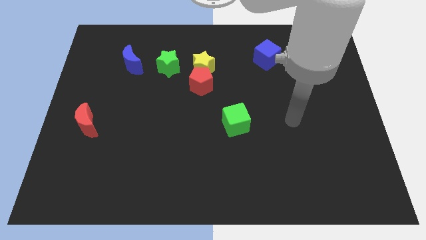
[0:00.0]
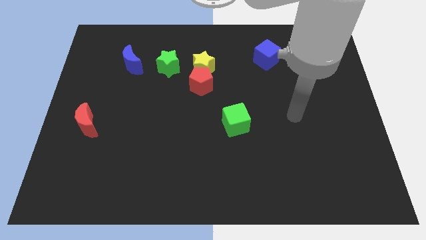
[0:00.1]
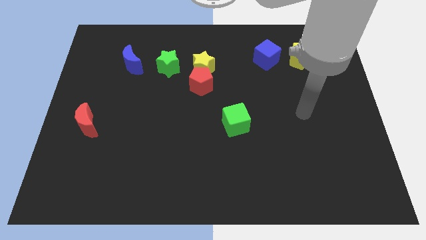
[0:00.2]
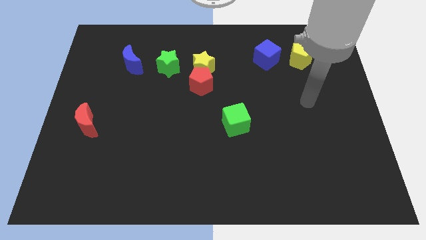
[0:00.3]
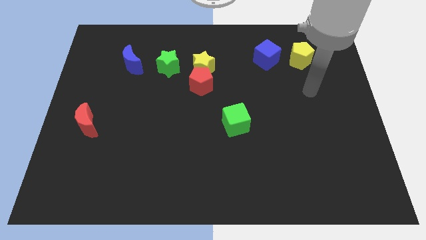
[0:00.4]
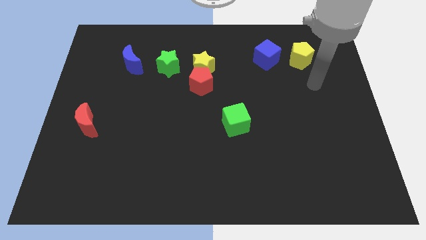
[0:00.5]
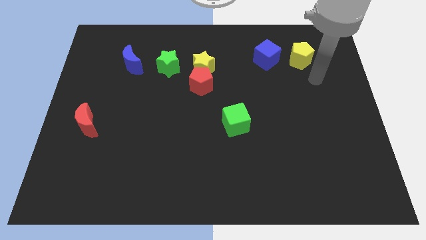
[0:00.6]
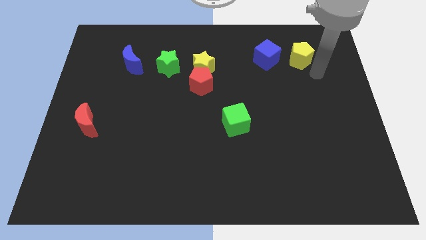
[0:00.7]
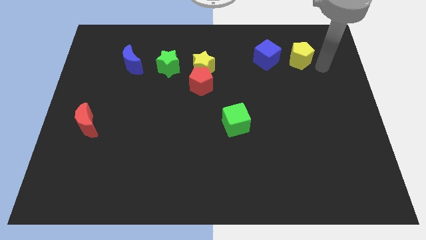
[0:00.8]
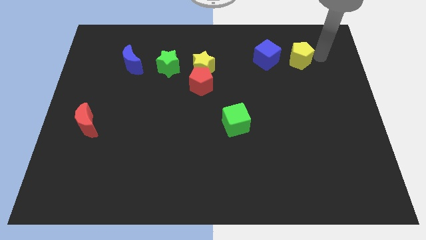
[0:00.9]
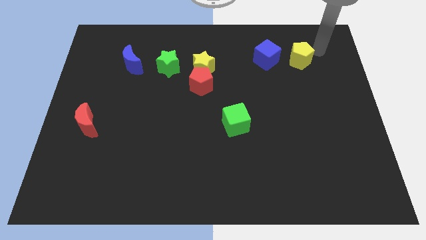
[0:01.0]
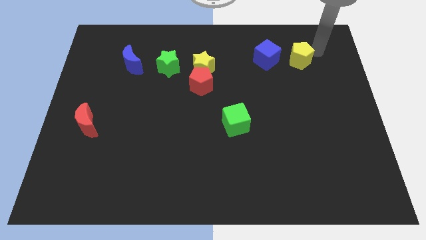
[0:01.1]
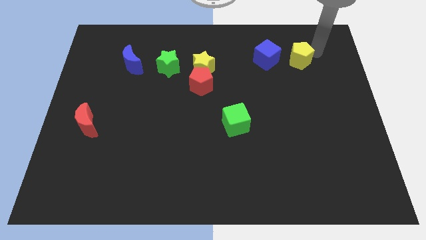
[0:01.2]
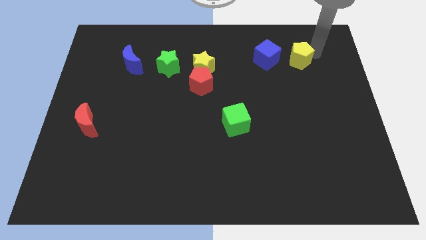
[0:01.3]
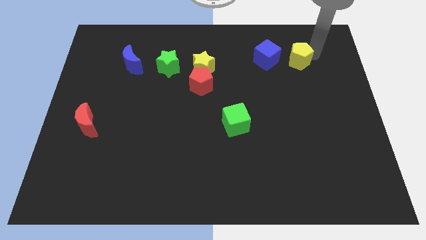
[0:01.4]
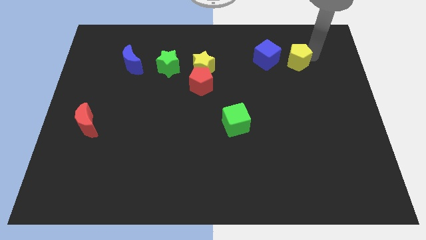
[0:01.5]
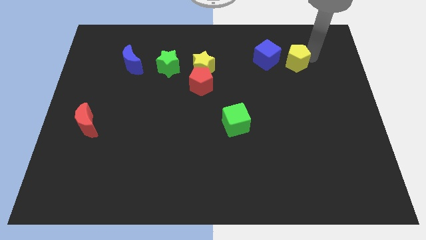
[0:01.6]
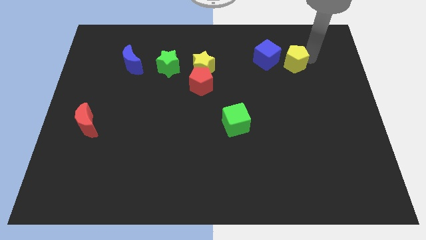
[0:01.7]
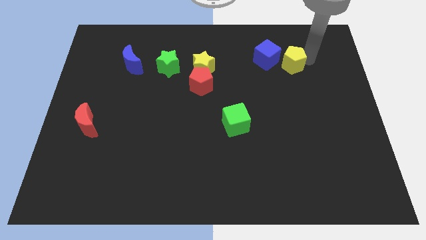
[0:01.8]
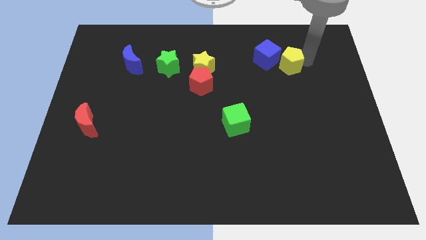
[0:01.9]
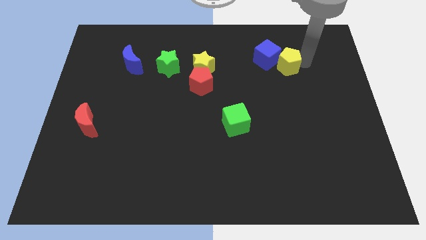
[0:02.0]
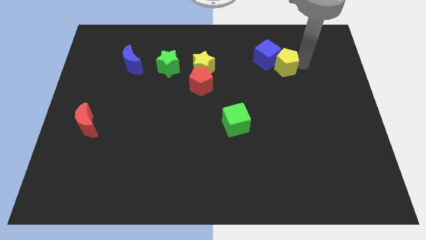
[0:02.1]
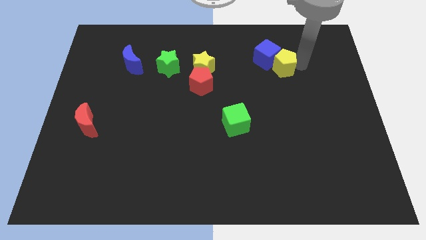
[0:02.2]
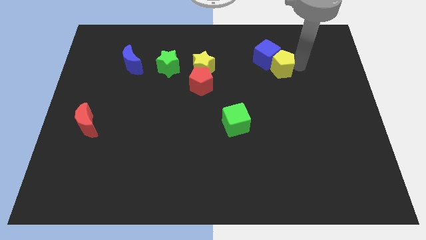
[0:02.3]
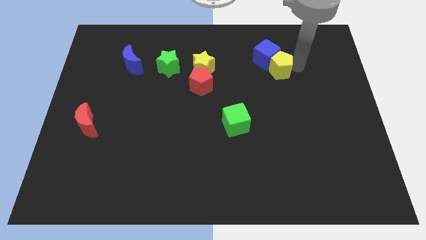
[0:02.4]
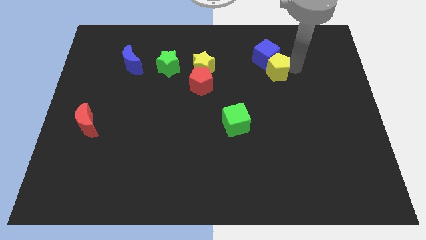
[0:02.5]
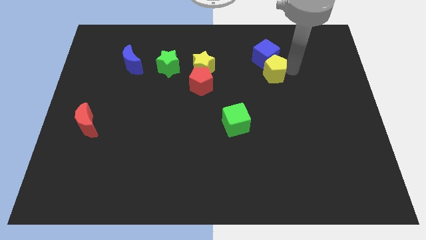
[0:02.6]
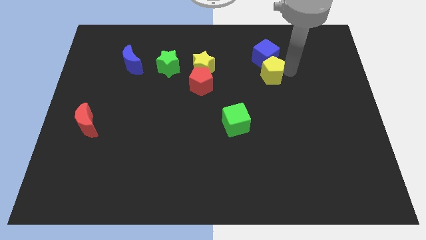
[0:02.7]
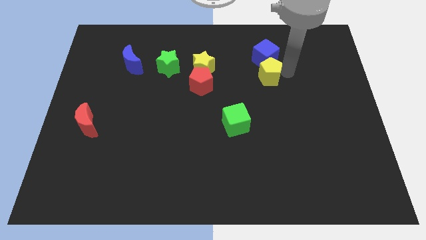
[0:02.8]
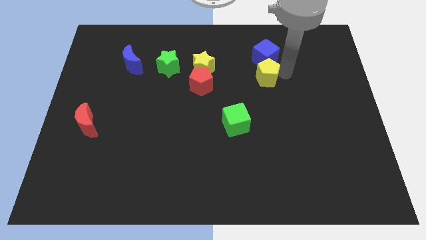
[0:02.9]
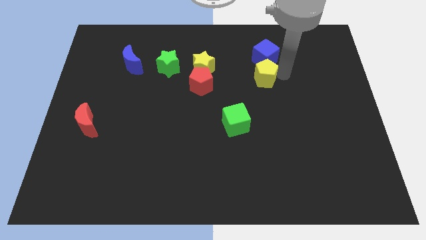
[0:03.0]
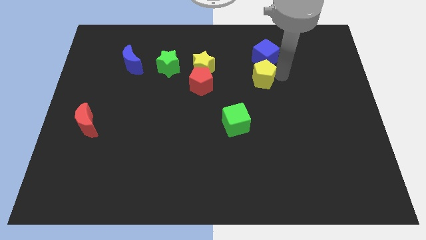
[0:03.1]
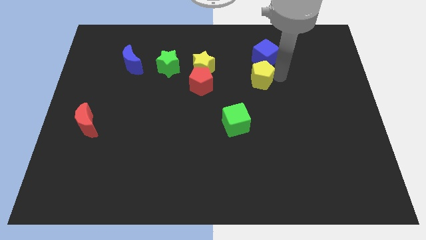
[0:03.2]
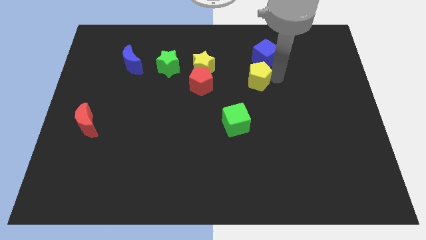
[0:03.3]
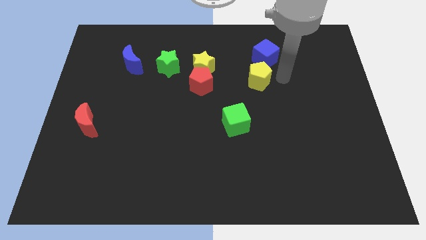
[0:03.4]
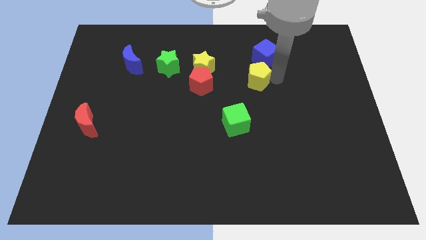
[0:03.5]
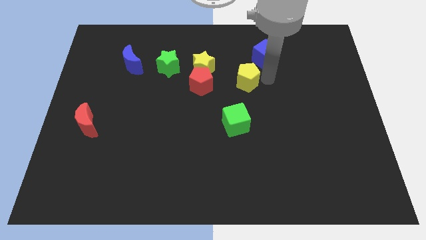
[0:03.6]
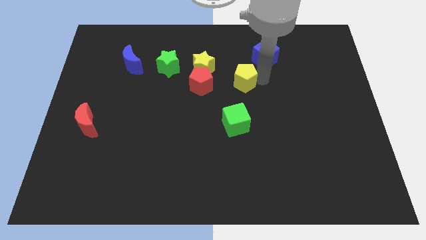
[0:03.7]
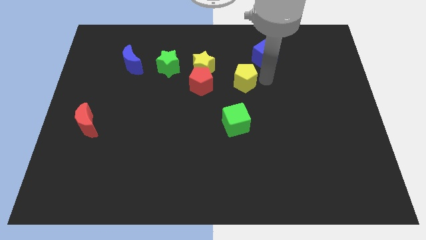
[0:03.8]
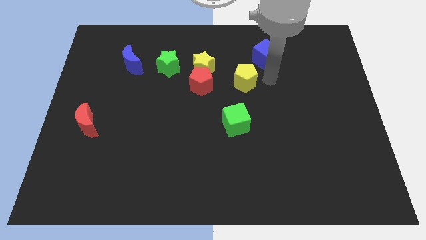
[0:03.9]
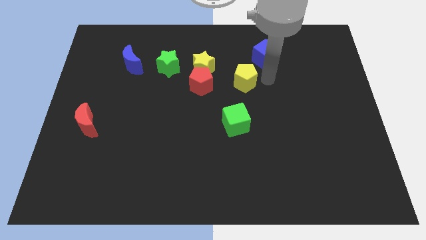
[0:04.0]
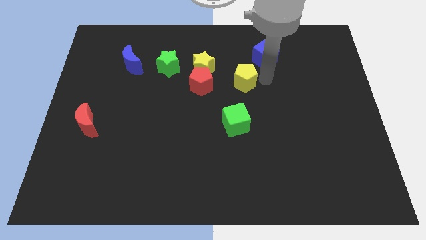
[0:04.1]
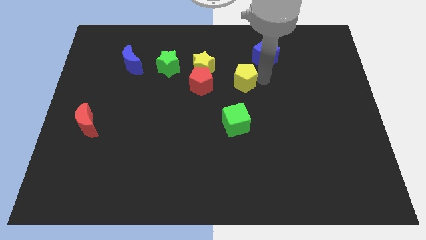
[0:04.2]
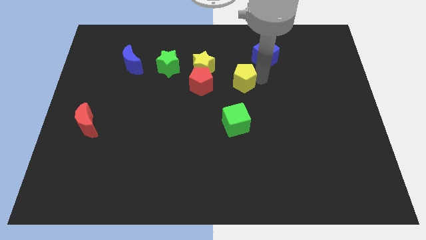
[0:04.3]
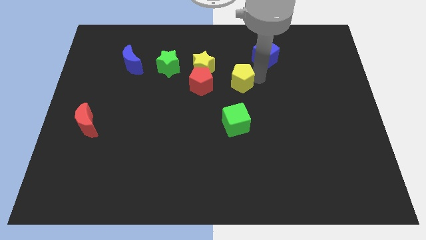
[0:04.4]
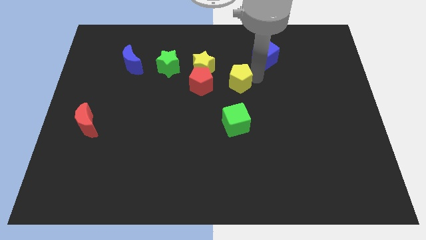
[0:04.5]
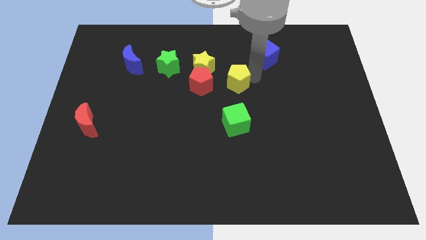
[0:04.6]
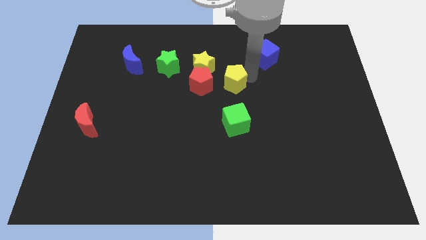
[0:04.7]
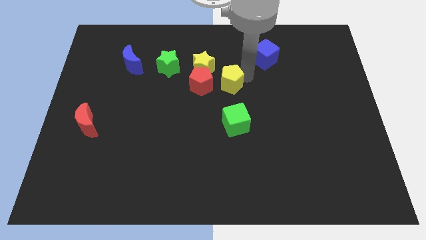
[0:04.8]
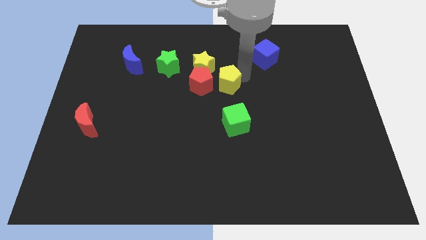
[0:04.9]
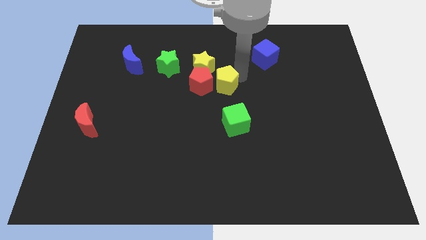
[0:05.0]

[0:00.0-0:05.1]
put the yellow pentagon close to the red pentagon

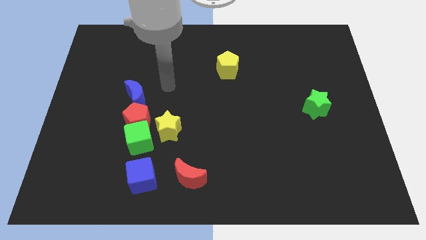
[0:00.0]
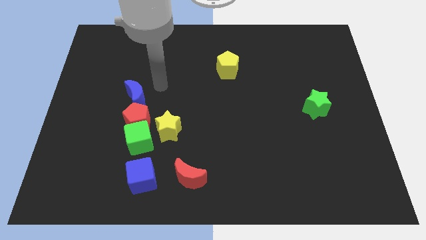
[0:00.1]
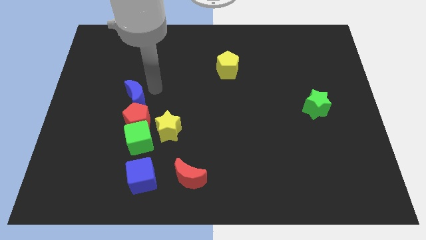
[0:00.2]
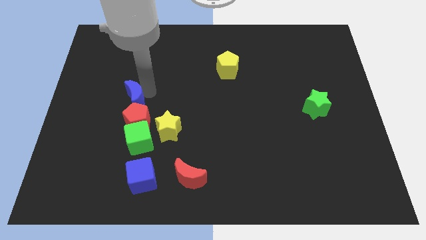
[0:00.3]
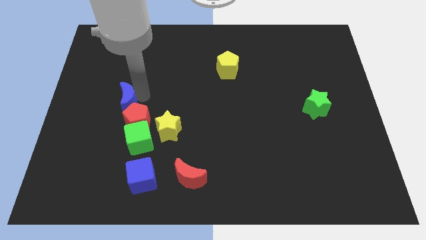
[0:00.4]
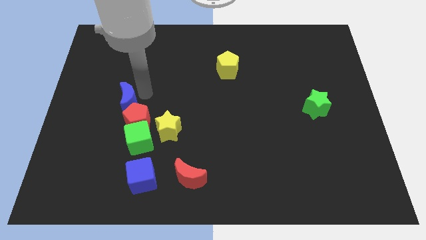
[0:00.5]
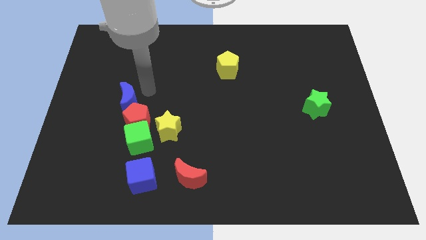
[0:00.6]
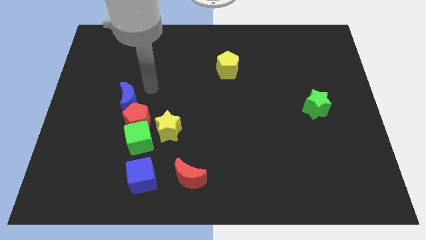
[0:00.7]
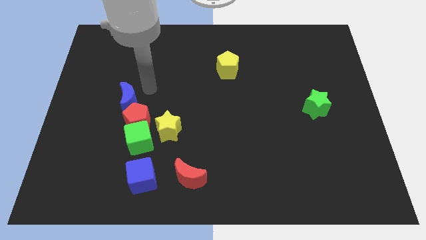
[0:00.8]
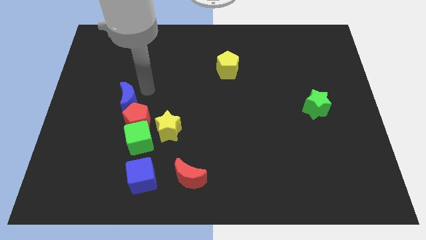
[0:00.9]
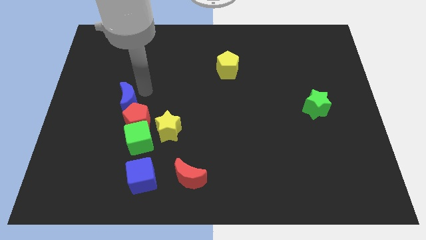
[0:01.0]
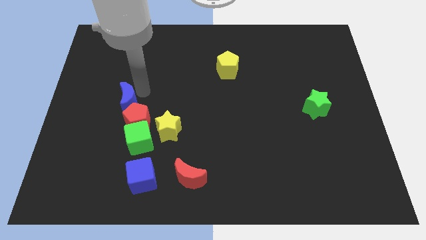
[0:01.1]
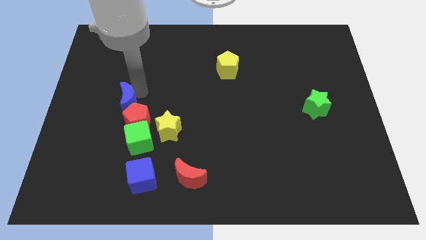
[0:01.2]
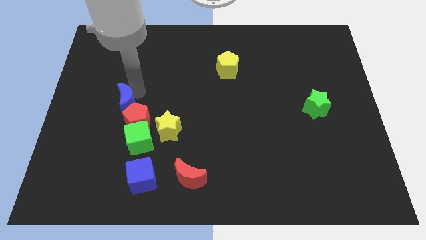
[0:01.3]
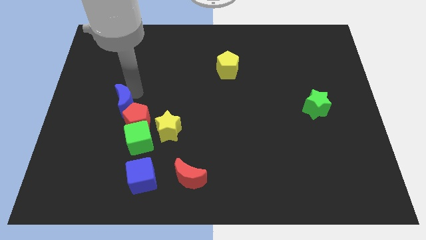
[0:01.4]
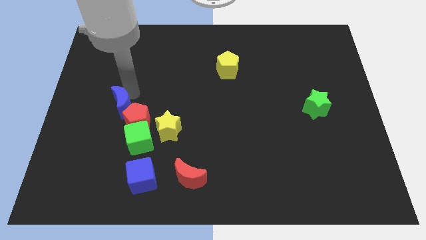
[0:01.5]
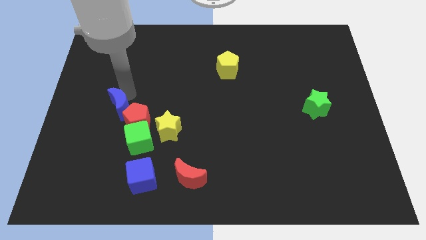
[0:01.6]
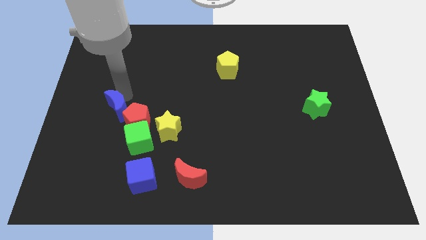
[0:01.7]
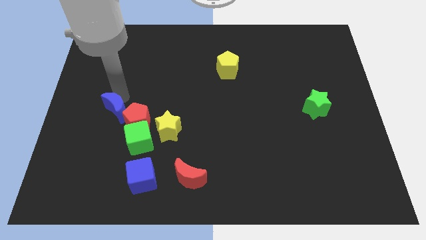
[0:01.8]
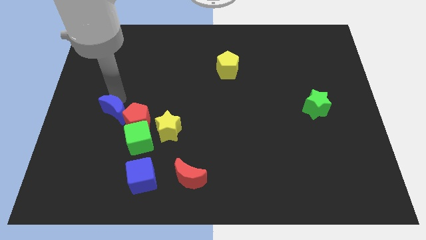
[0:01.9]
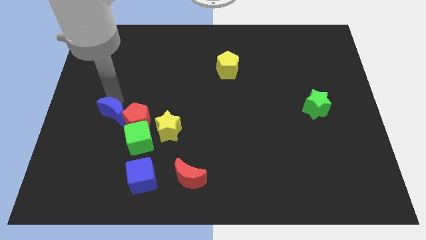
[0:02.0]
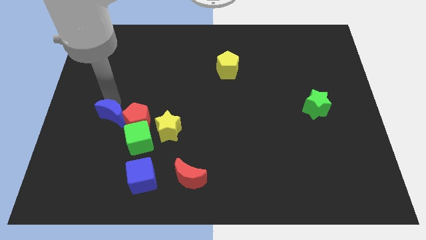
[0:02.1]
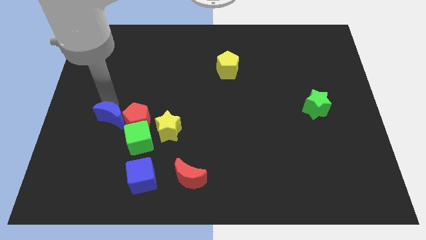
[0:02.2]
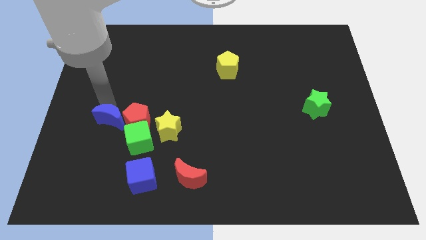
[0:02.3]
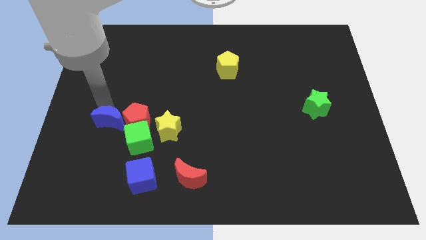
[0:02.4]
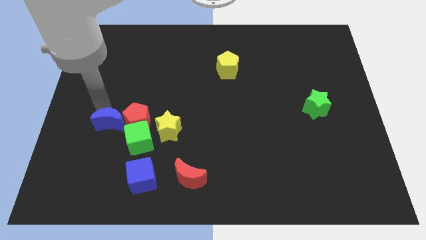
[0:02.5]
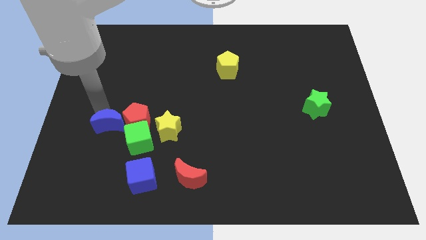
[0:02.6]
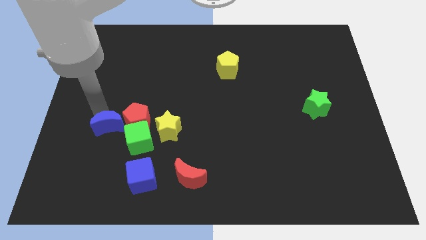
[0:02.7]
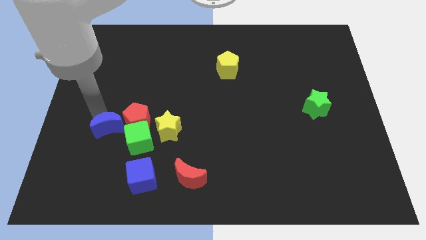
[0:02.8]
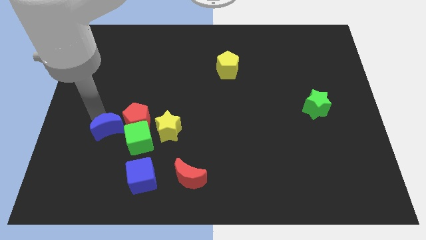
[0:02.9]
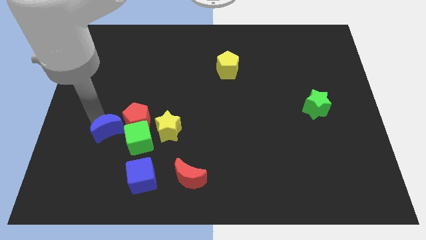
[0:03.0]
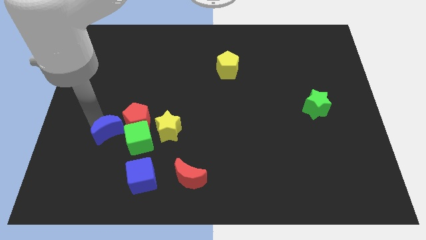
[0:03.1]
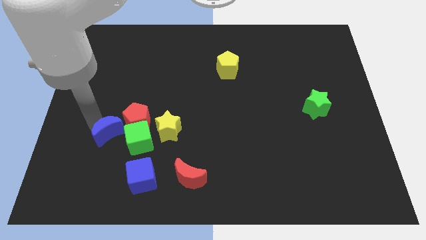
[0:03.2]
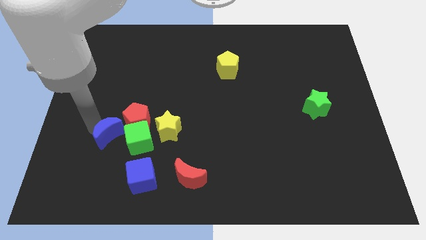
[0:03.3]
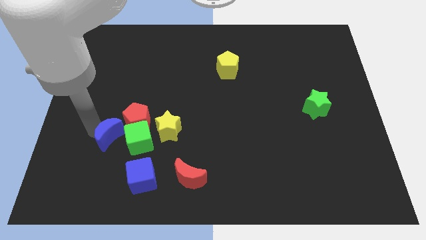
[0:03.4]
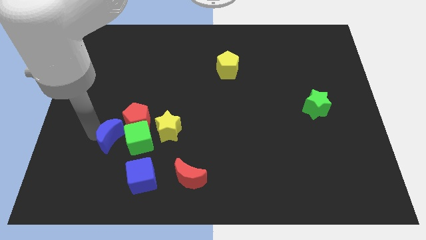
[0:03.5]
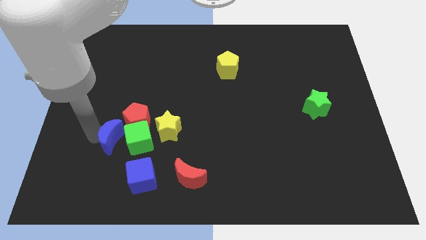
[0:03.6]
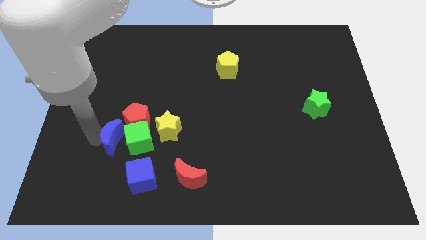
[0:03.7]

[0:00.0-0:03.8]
move the blue moon close to the green cube
